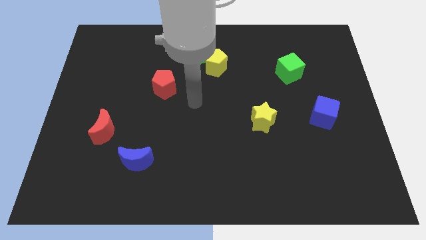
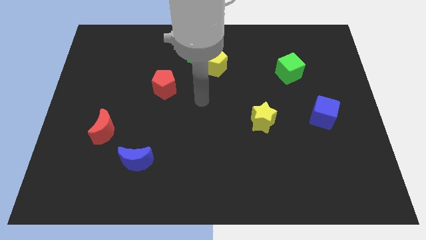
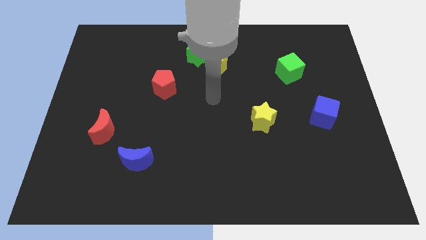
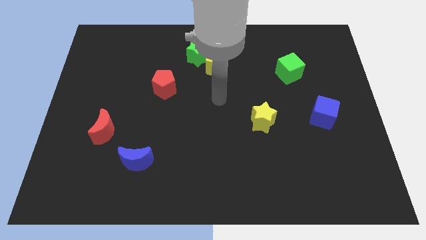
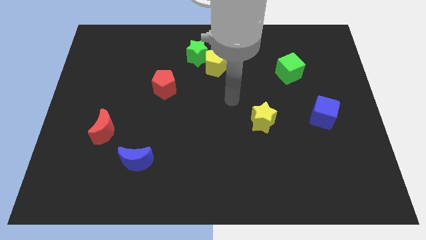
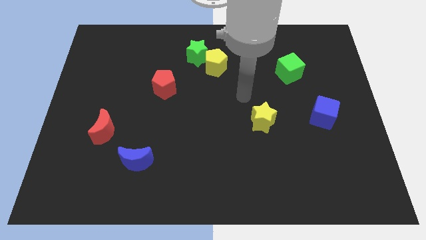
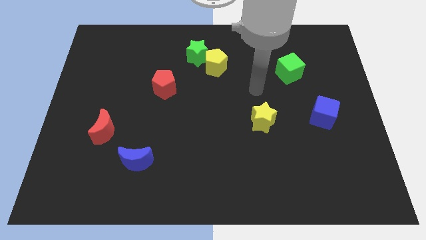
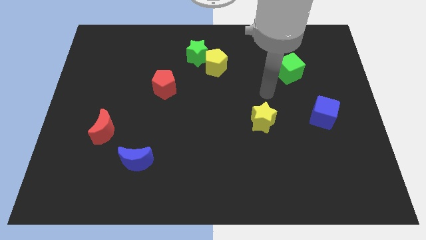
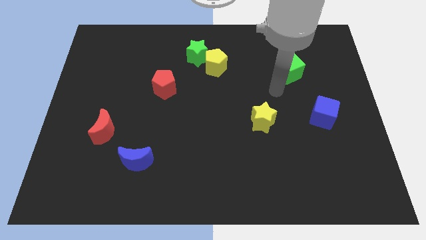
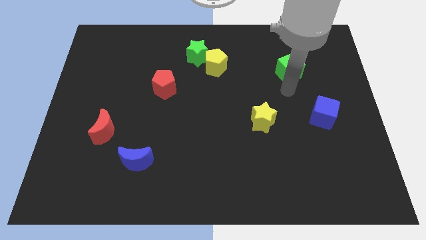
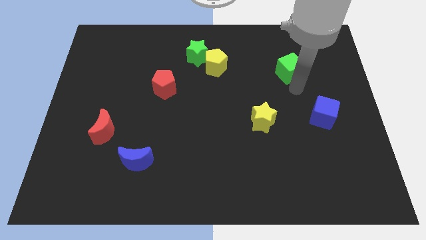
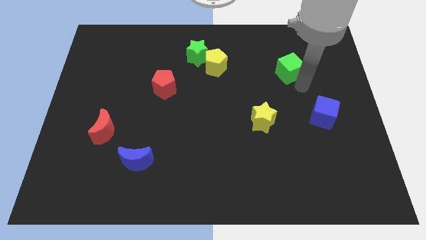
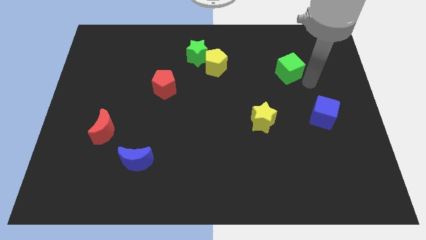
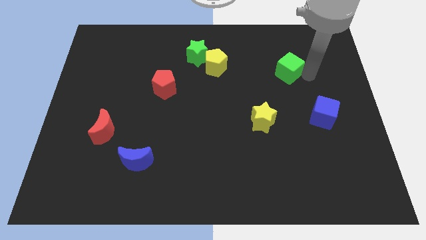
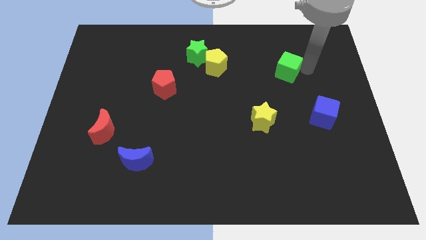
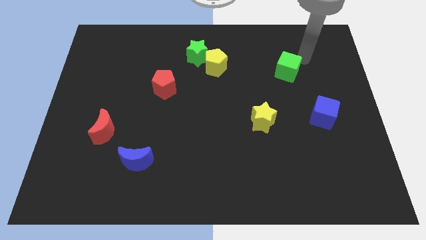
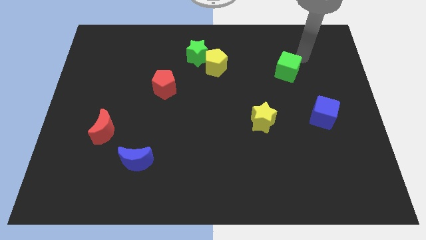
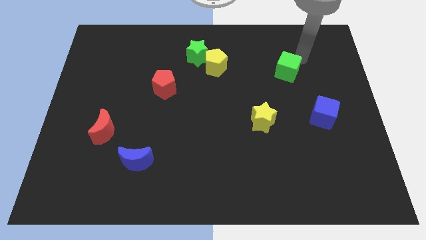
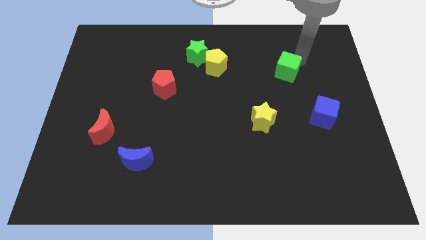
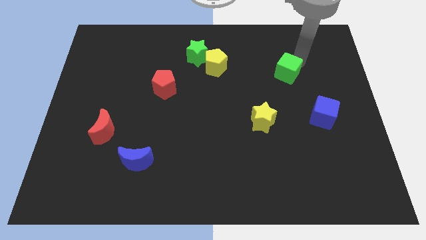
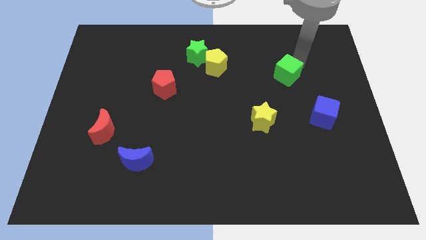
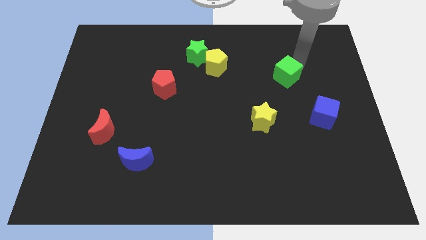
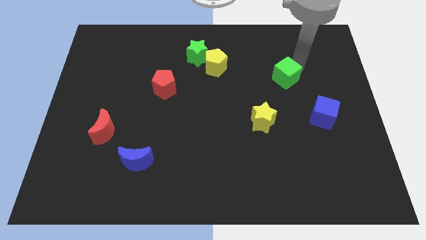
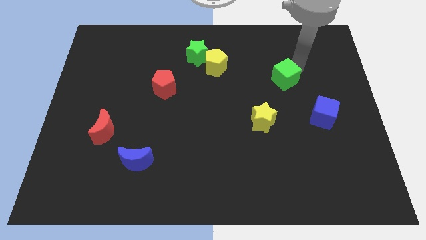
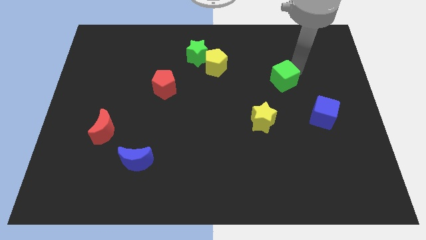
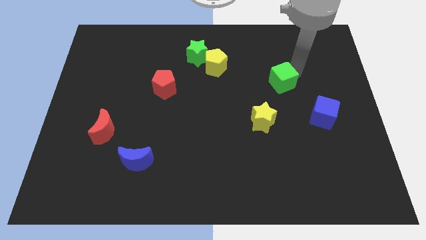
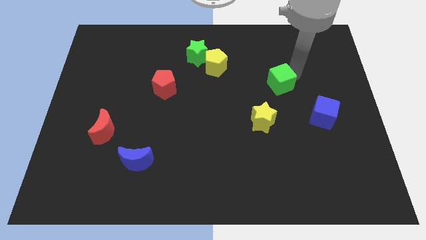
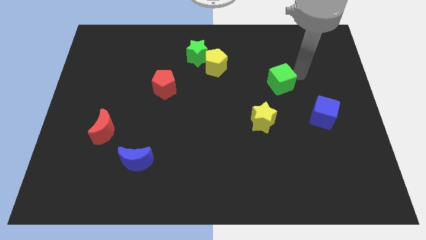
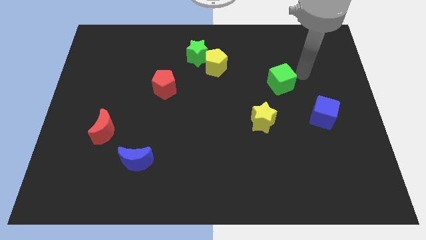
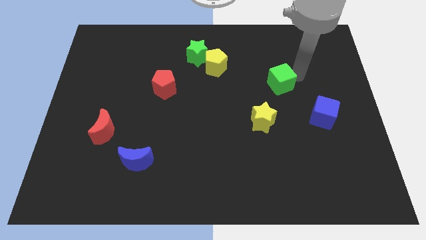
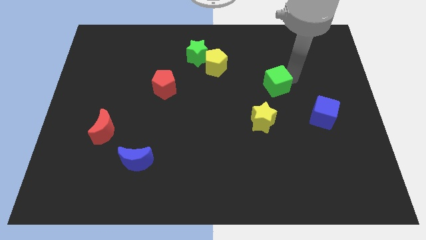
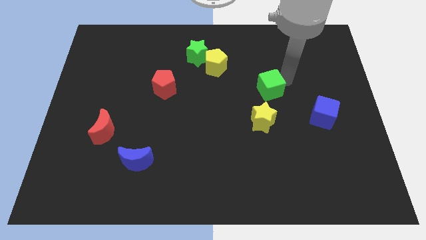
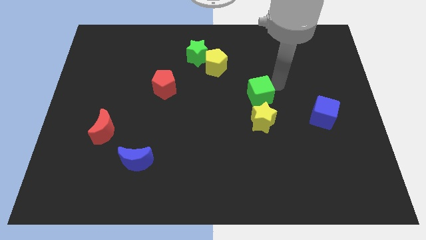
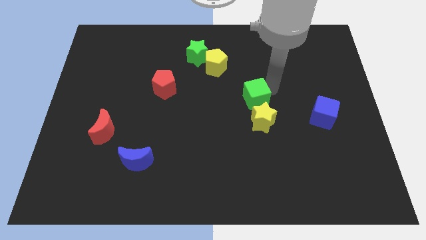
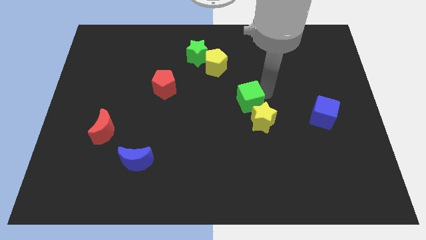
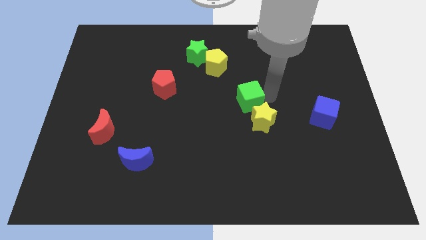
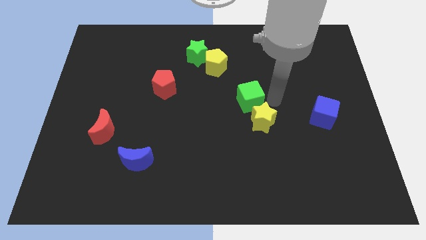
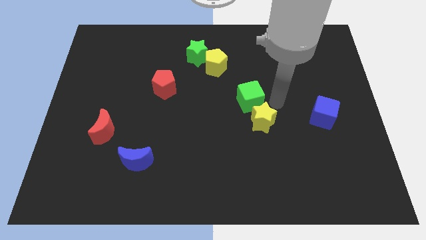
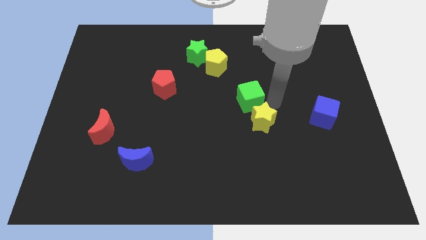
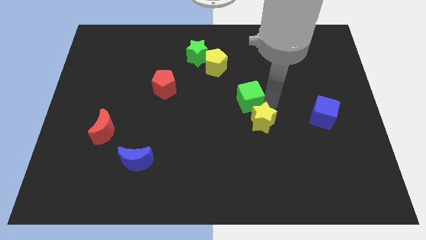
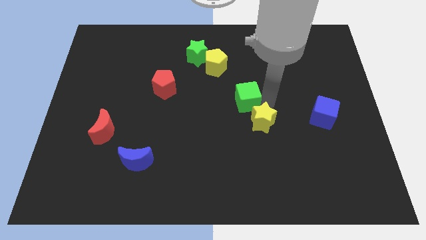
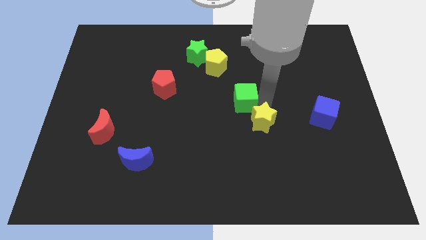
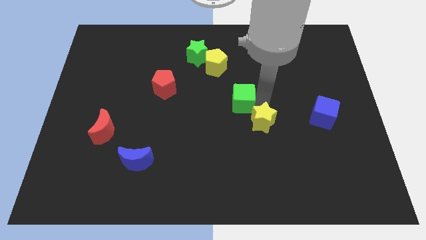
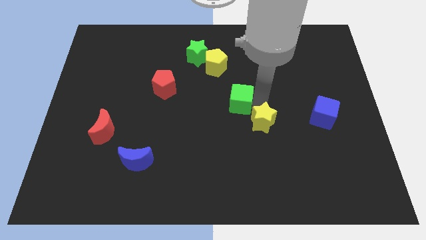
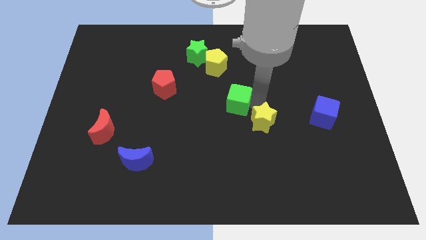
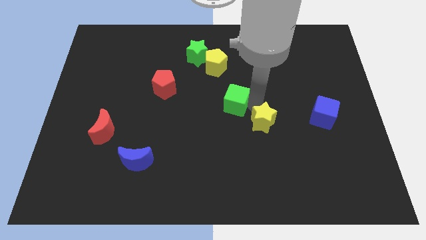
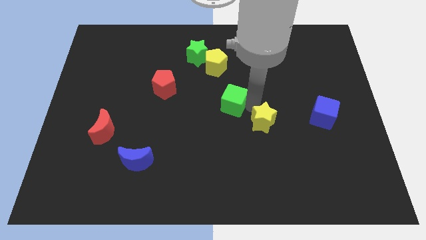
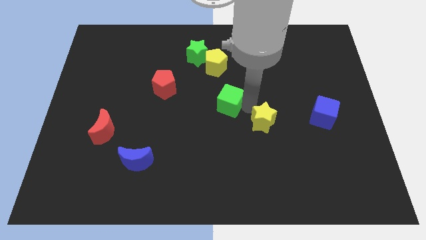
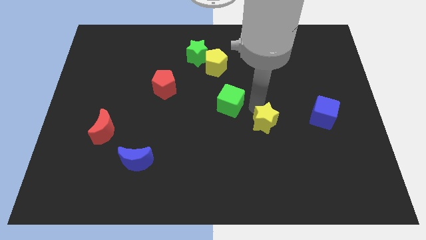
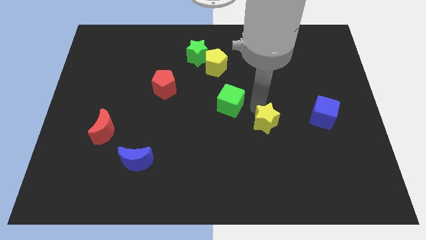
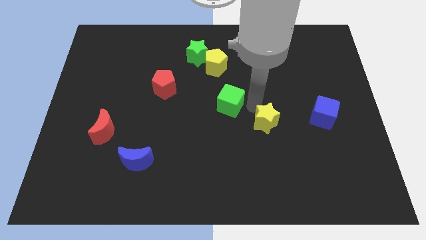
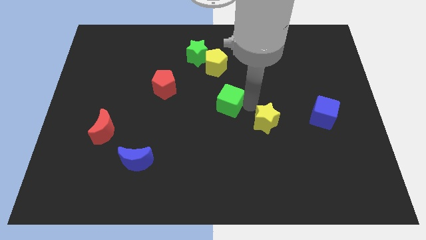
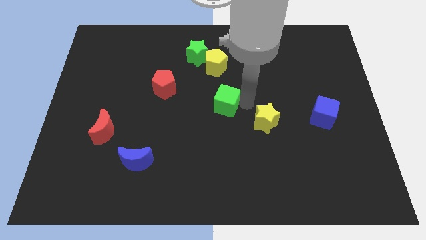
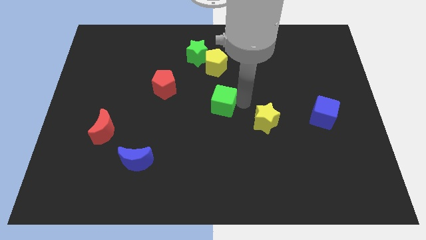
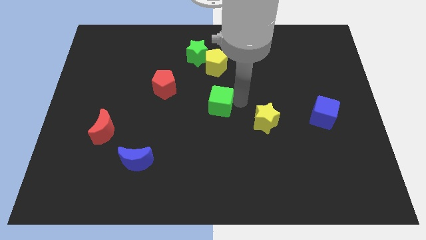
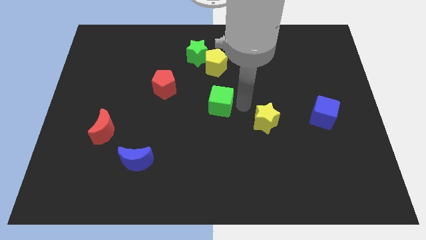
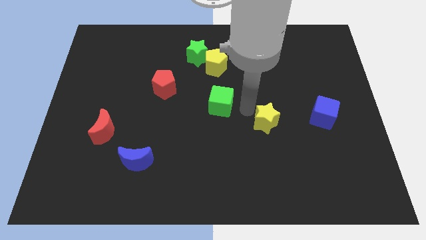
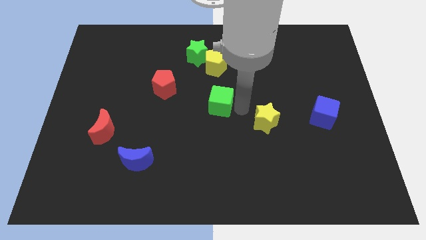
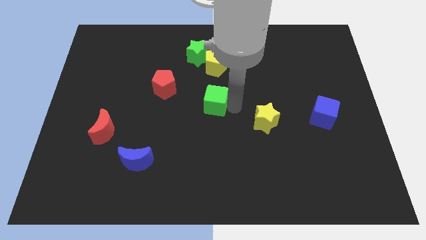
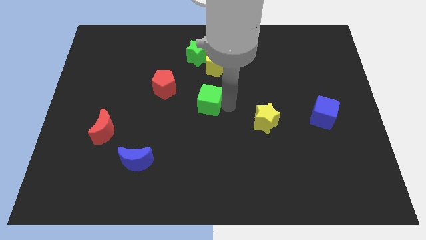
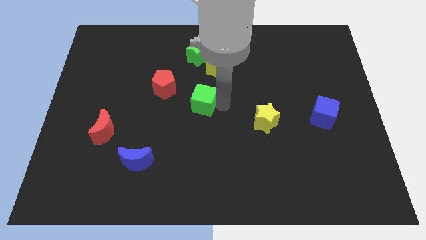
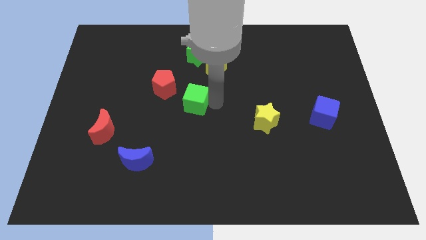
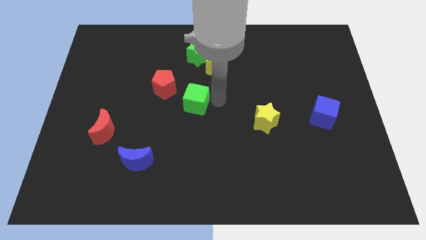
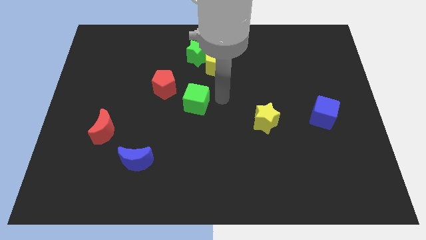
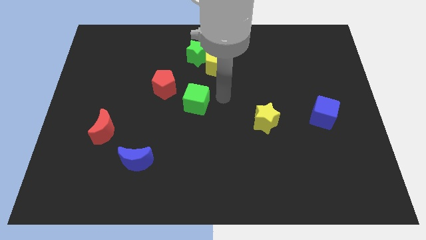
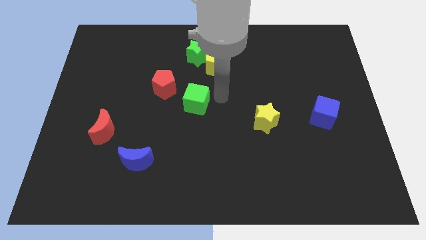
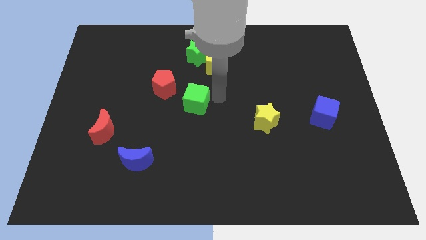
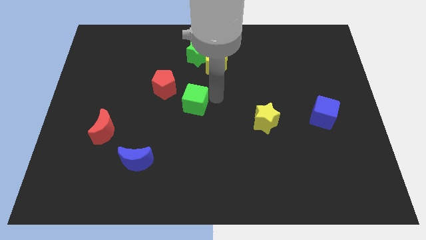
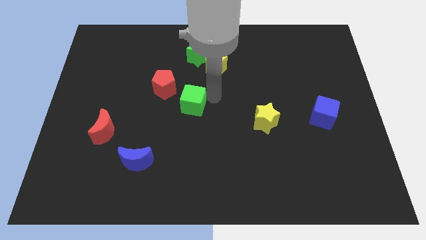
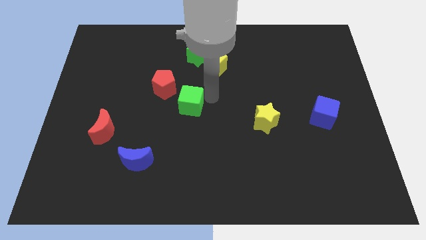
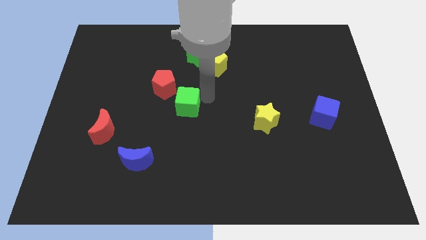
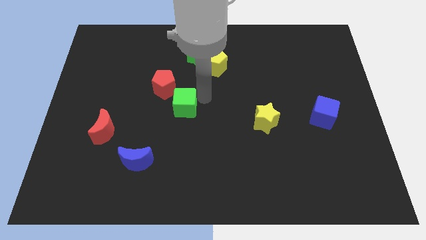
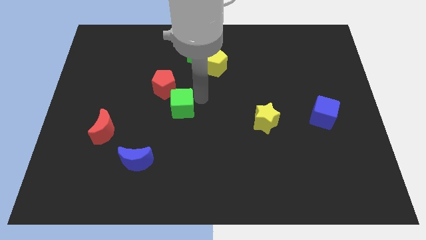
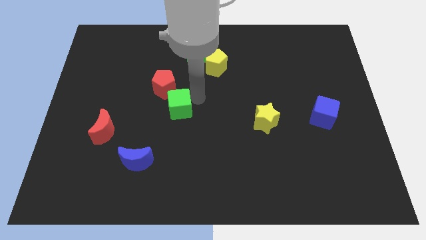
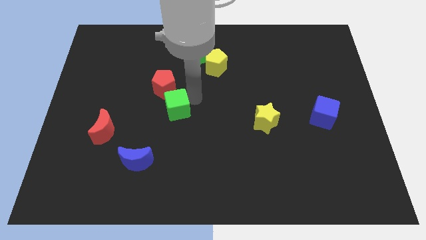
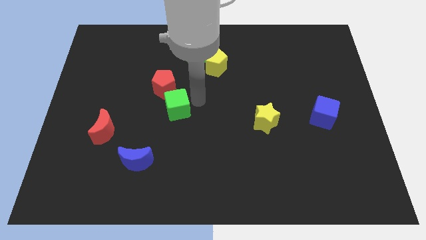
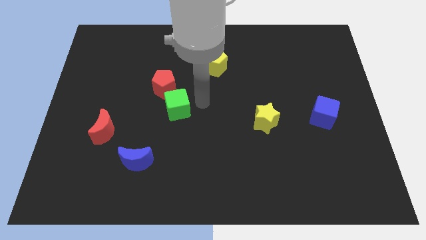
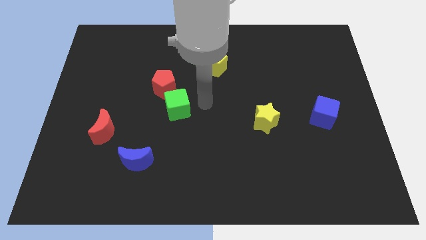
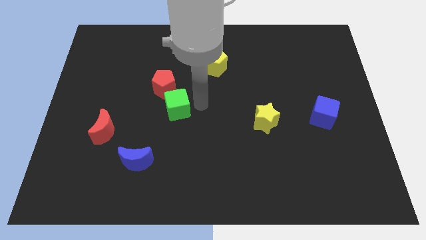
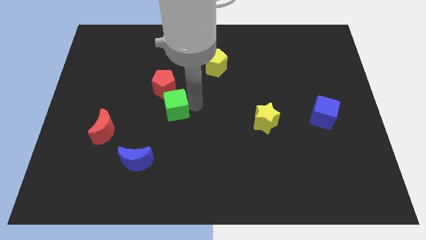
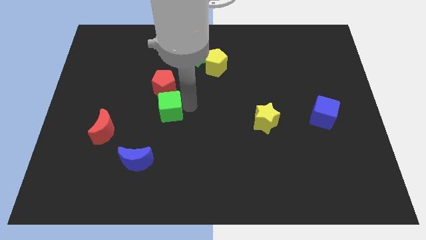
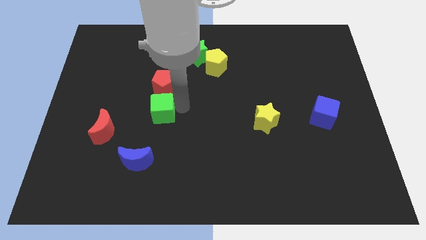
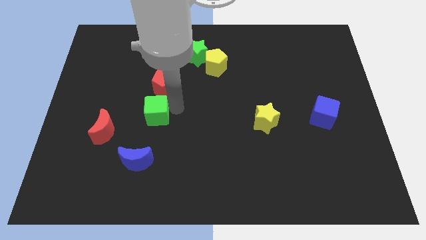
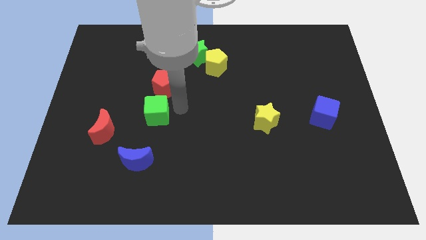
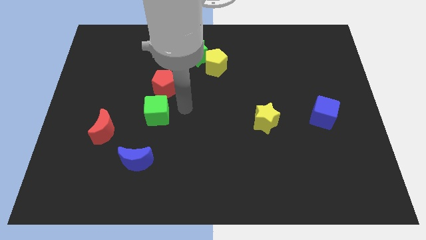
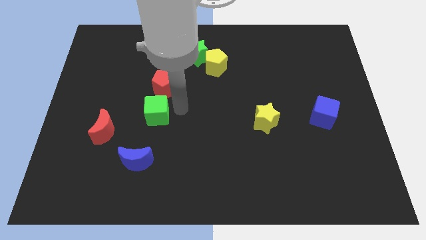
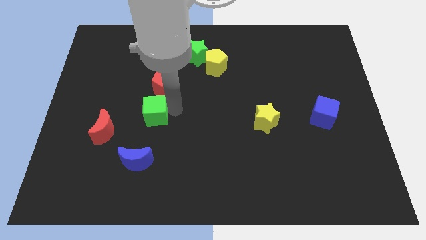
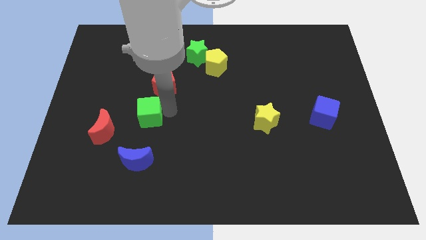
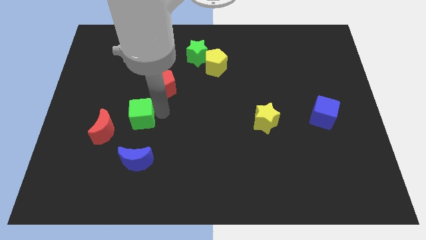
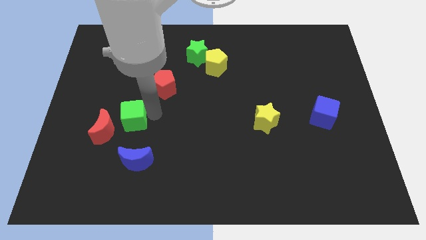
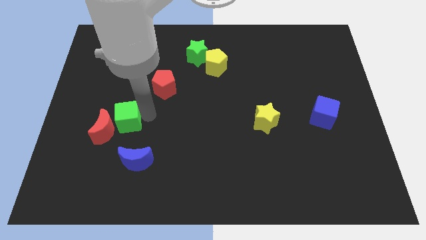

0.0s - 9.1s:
move the green cube to the red moon
